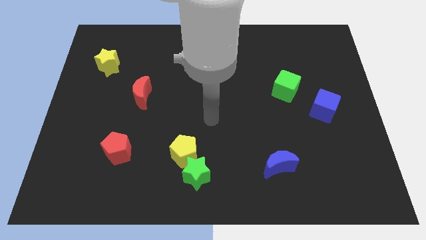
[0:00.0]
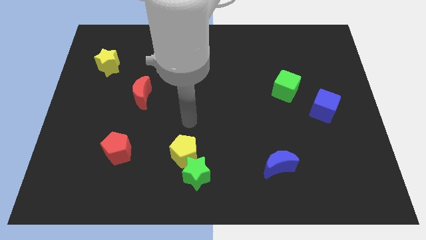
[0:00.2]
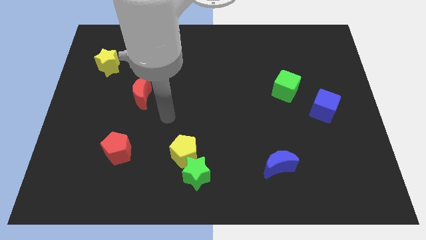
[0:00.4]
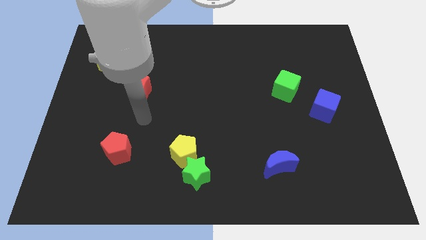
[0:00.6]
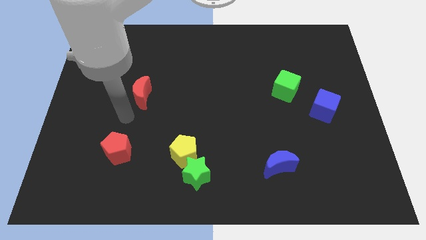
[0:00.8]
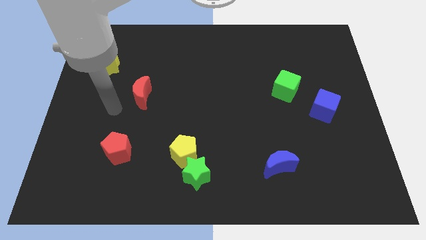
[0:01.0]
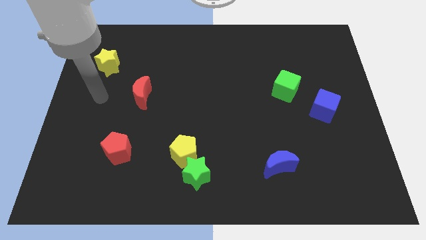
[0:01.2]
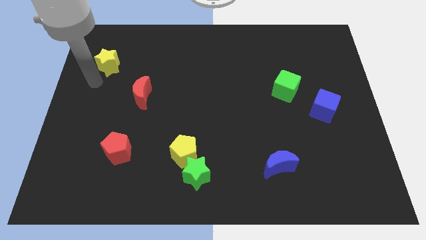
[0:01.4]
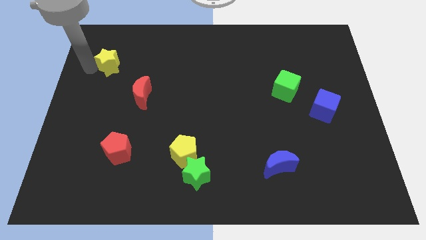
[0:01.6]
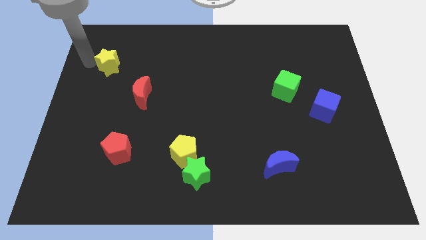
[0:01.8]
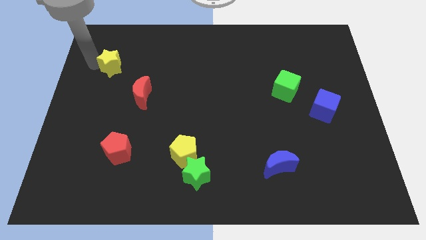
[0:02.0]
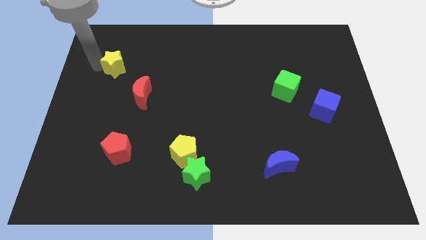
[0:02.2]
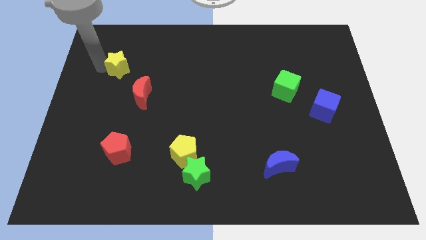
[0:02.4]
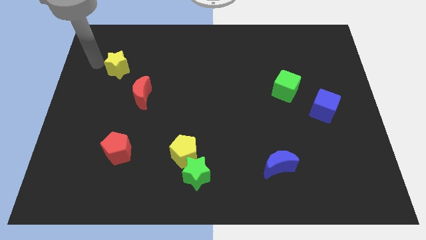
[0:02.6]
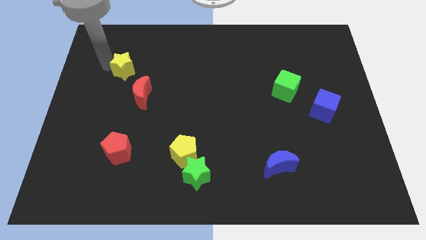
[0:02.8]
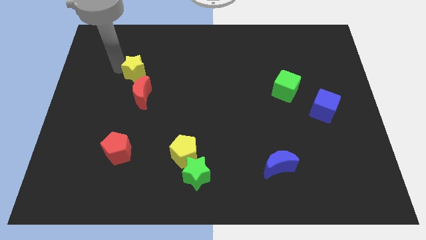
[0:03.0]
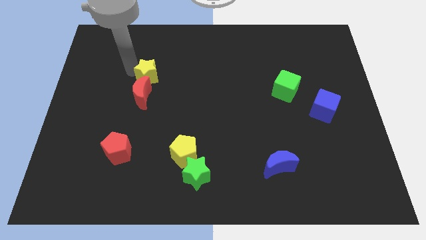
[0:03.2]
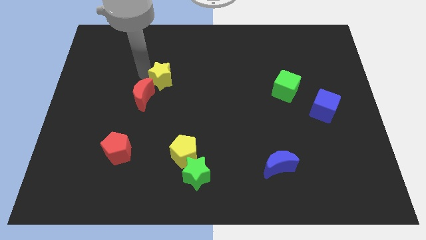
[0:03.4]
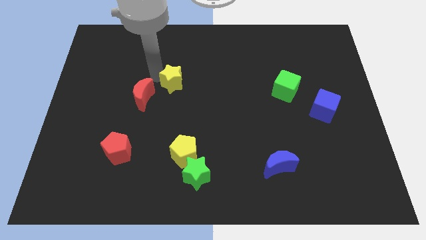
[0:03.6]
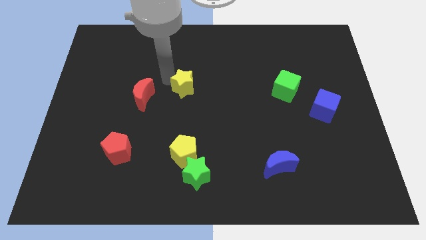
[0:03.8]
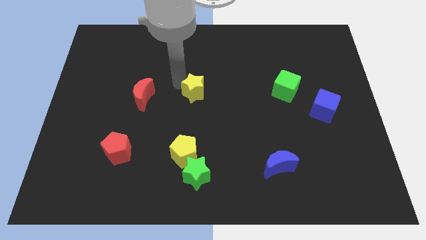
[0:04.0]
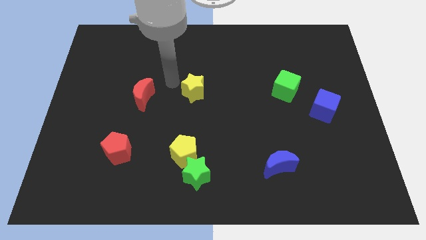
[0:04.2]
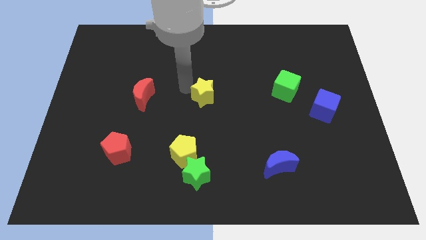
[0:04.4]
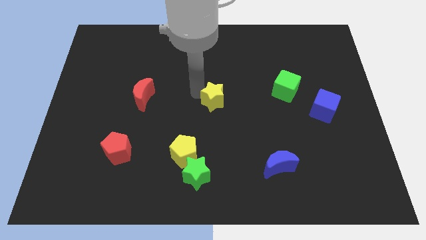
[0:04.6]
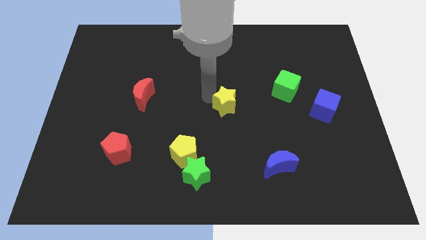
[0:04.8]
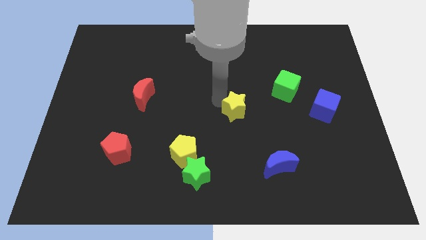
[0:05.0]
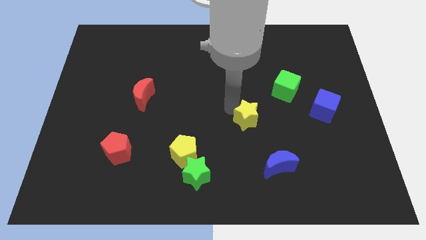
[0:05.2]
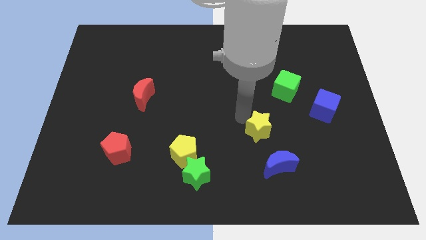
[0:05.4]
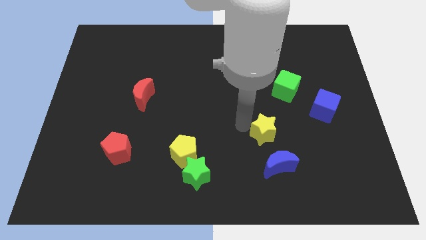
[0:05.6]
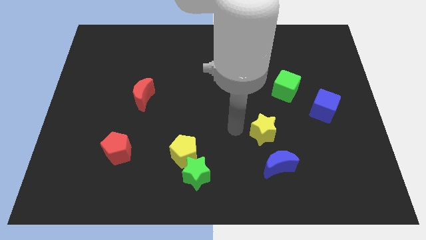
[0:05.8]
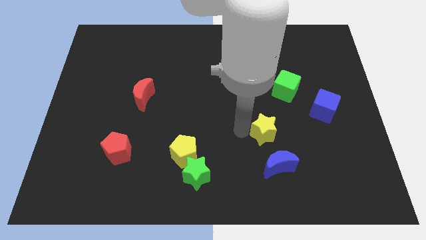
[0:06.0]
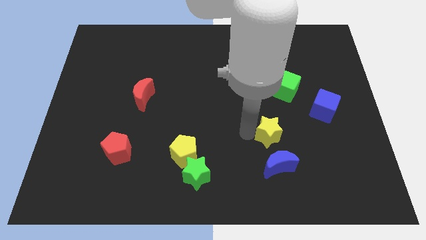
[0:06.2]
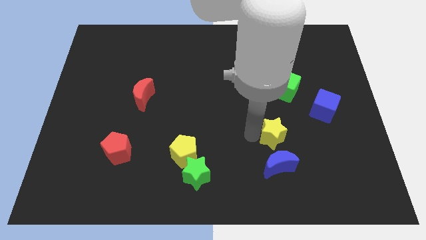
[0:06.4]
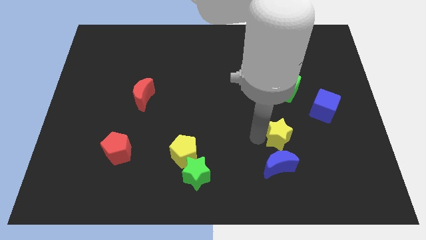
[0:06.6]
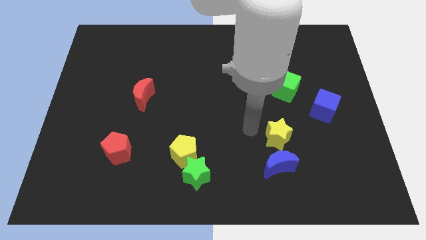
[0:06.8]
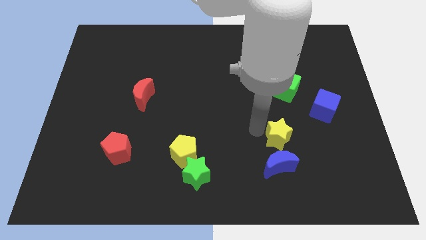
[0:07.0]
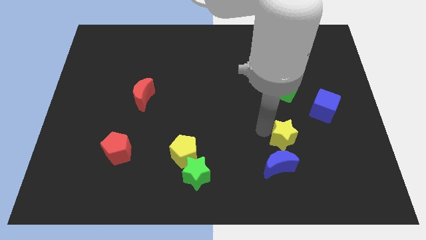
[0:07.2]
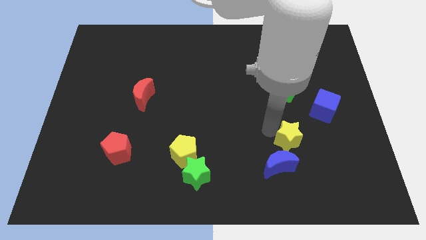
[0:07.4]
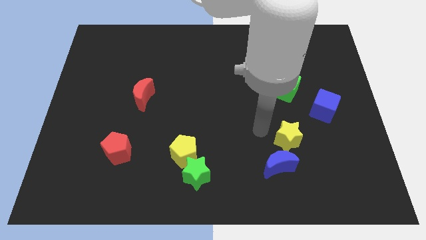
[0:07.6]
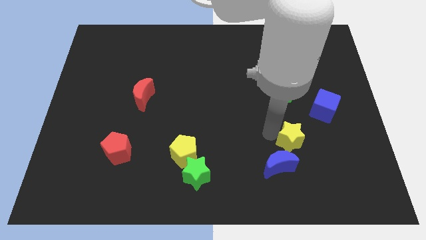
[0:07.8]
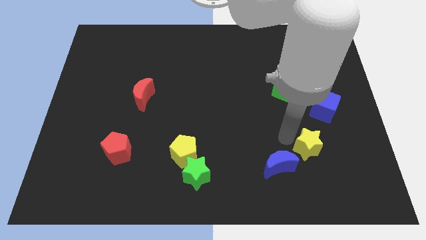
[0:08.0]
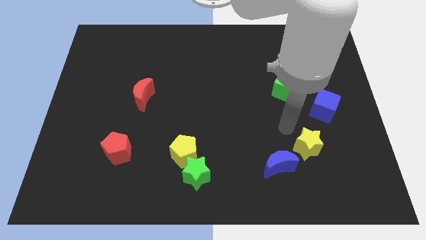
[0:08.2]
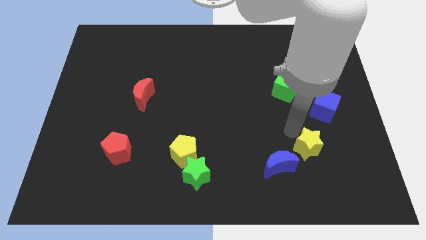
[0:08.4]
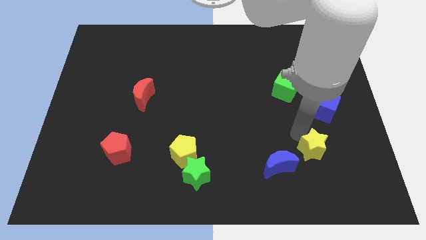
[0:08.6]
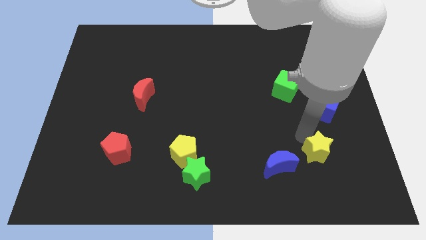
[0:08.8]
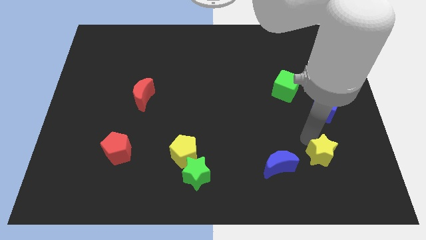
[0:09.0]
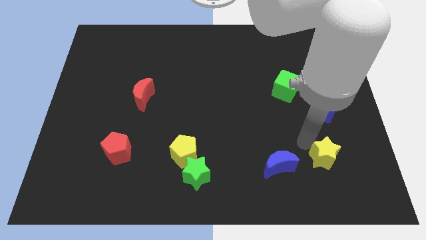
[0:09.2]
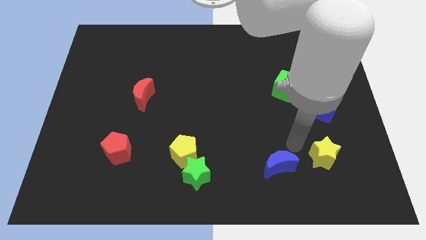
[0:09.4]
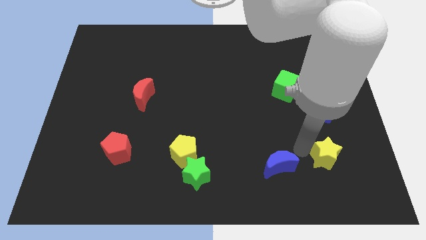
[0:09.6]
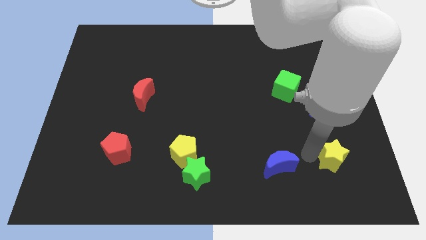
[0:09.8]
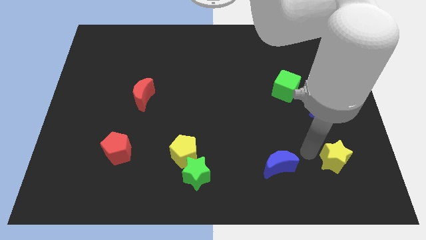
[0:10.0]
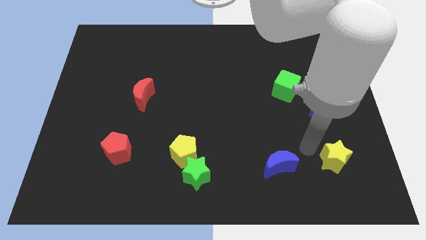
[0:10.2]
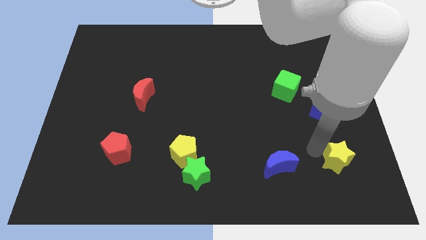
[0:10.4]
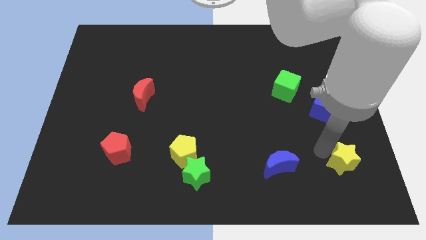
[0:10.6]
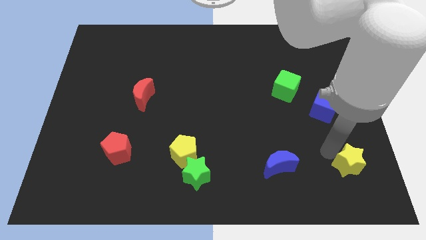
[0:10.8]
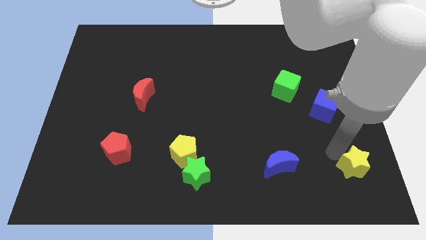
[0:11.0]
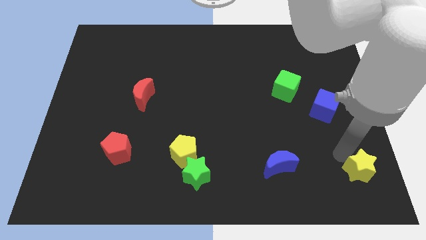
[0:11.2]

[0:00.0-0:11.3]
put the yellow star to the lower right corner

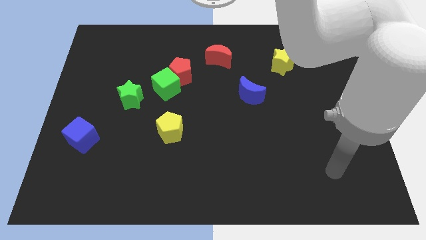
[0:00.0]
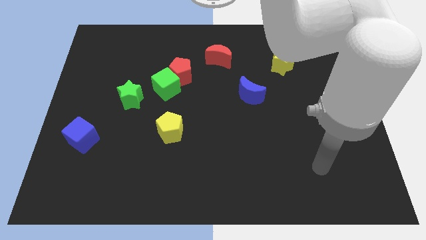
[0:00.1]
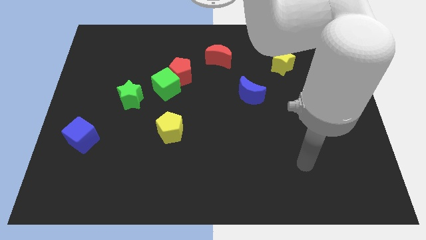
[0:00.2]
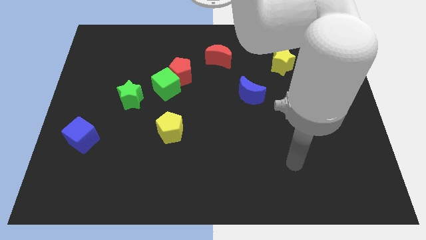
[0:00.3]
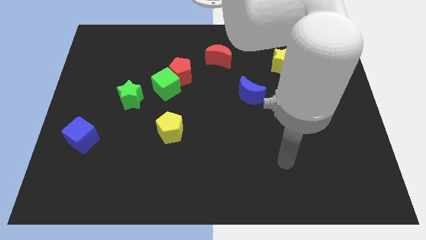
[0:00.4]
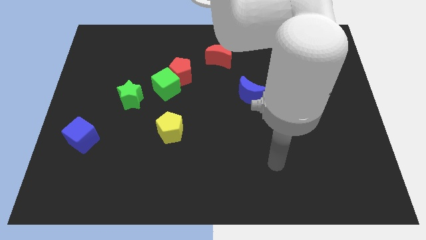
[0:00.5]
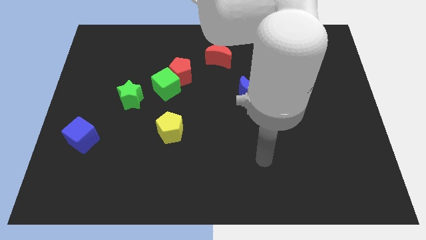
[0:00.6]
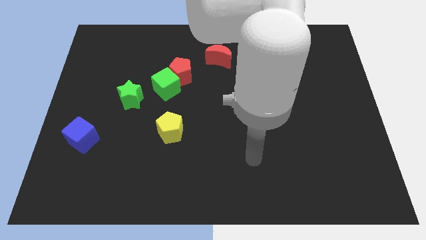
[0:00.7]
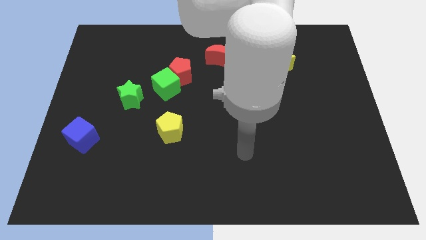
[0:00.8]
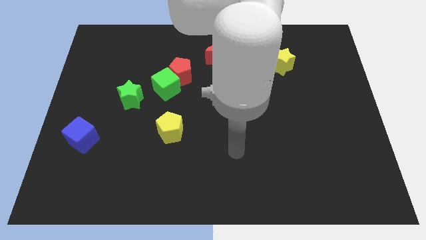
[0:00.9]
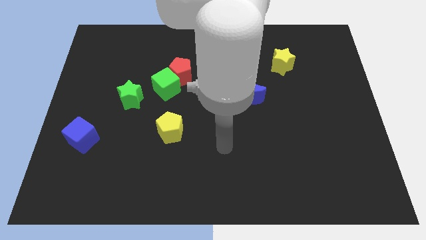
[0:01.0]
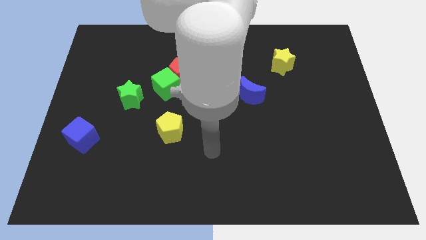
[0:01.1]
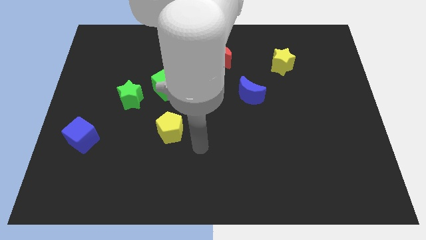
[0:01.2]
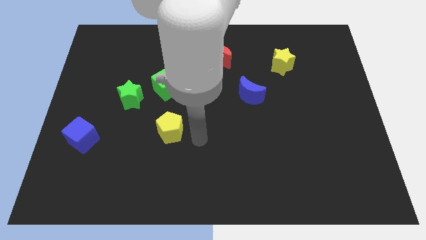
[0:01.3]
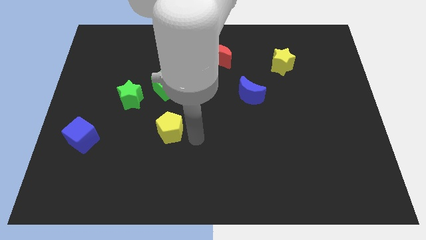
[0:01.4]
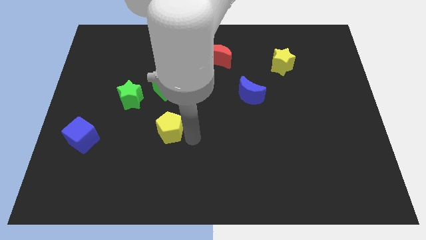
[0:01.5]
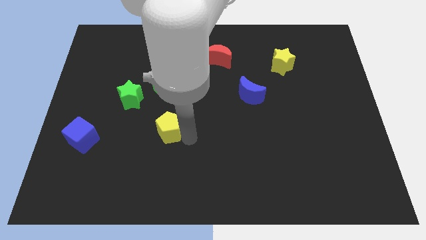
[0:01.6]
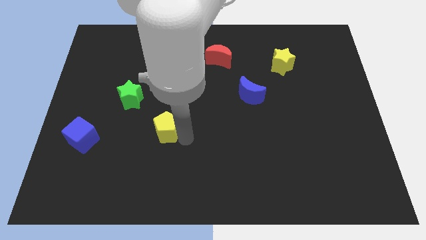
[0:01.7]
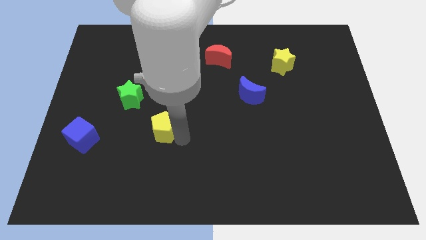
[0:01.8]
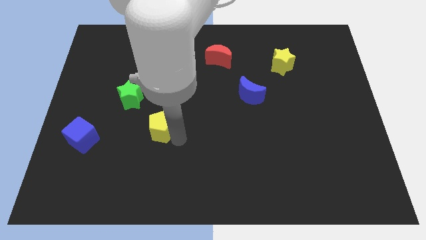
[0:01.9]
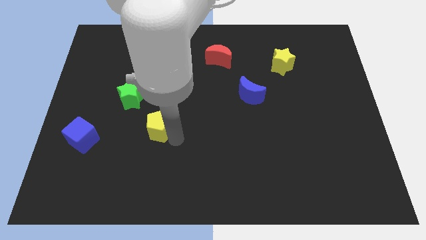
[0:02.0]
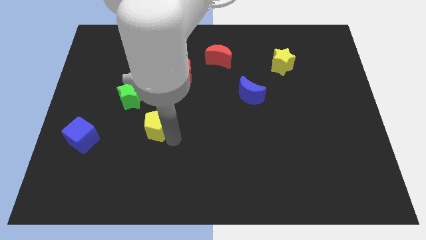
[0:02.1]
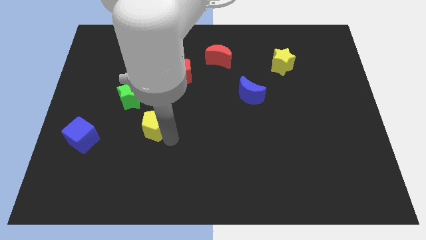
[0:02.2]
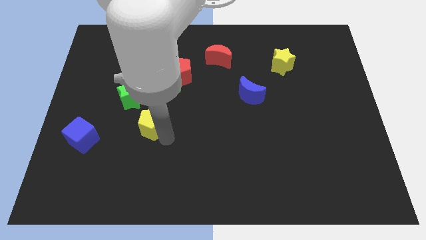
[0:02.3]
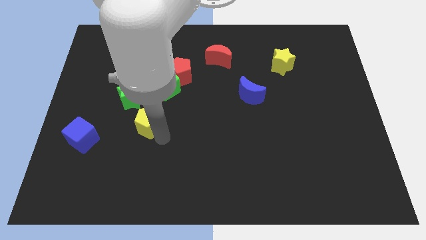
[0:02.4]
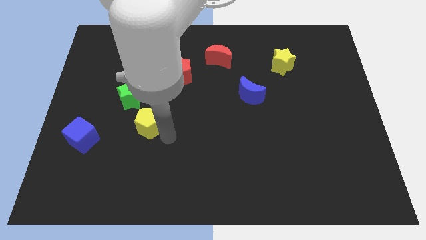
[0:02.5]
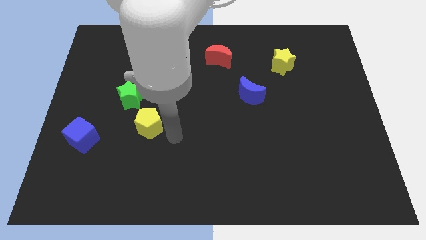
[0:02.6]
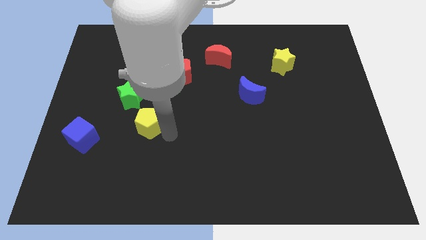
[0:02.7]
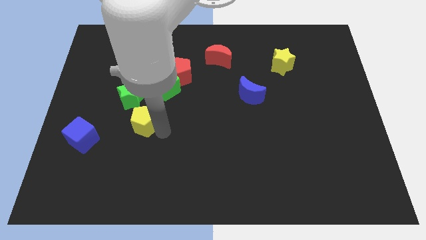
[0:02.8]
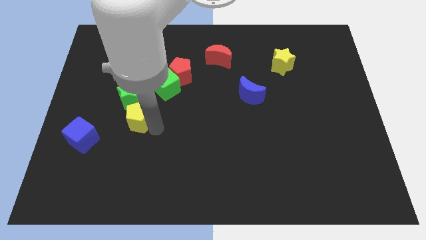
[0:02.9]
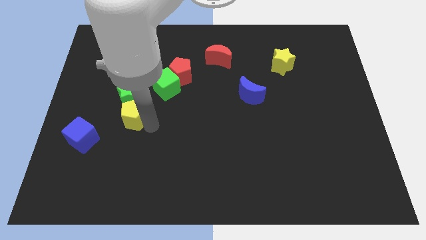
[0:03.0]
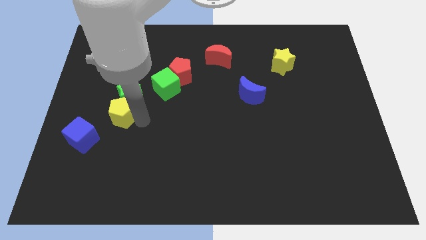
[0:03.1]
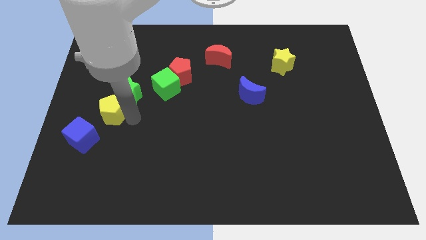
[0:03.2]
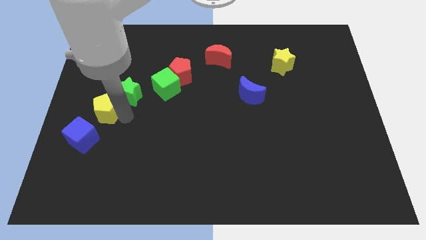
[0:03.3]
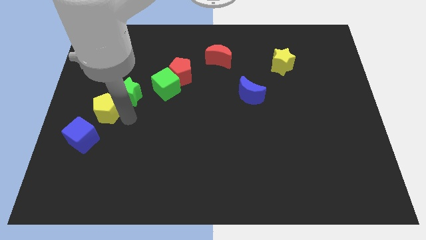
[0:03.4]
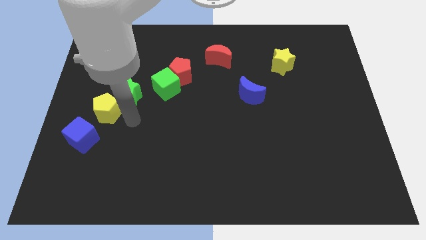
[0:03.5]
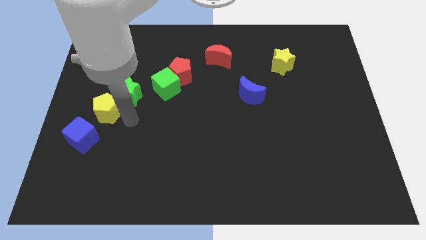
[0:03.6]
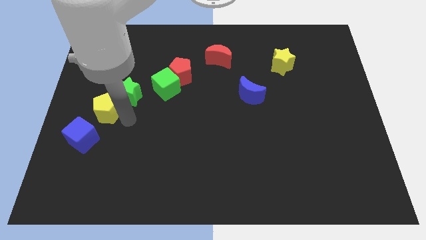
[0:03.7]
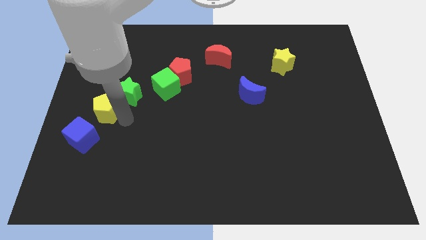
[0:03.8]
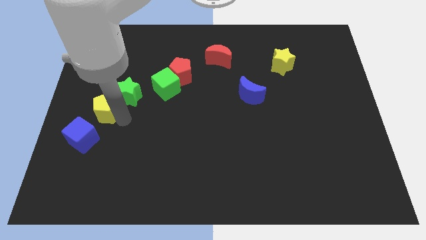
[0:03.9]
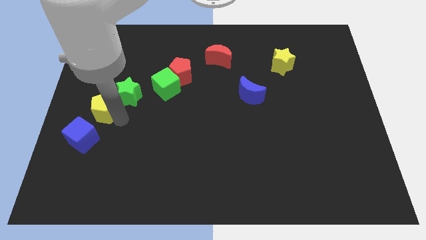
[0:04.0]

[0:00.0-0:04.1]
move the yellow pentagon to the left side of the board
